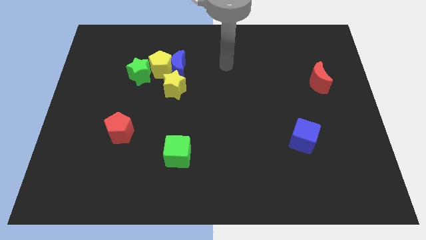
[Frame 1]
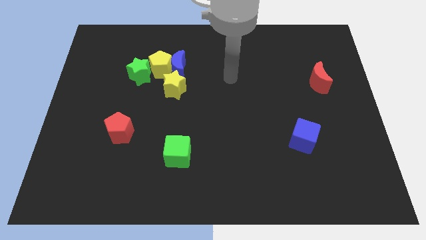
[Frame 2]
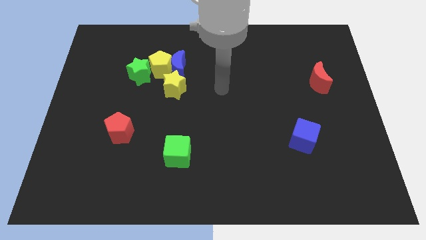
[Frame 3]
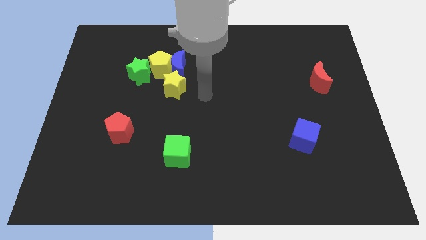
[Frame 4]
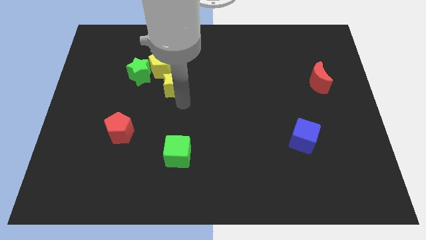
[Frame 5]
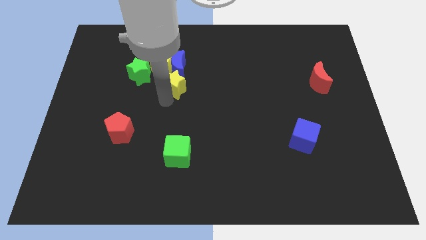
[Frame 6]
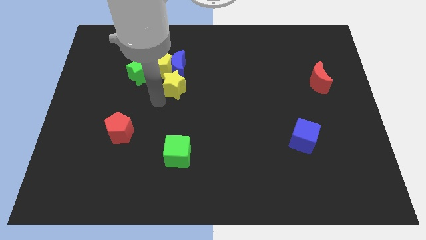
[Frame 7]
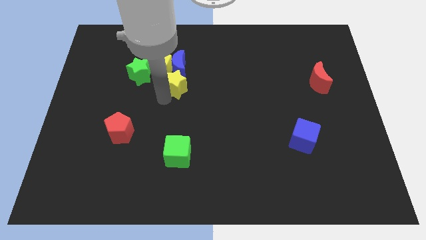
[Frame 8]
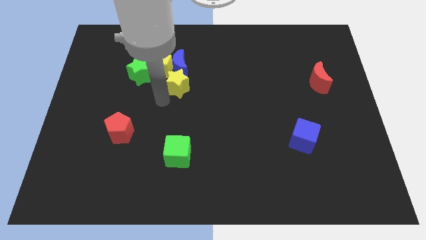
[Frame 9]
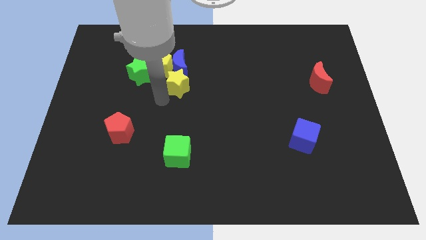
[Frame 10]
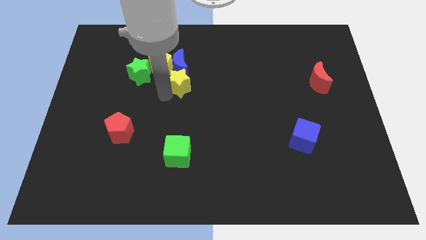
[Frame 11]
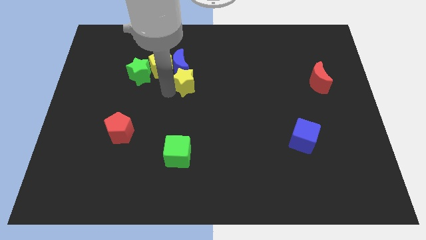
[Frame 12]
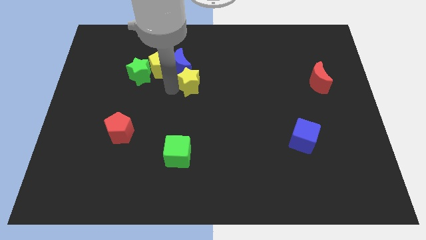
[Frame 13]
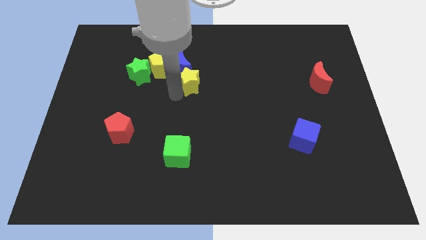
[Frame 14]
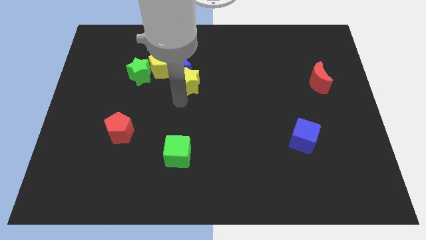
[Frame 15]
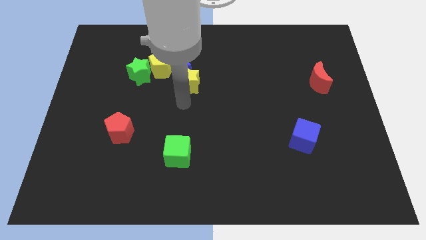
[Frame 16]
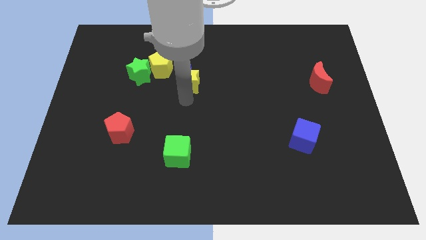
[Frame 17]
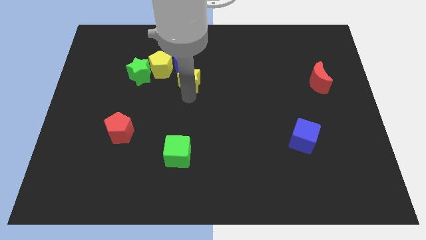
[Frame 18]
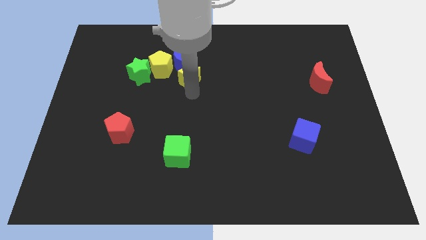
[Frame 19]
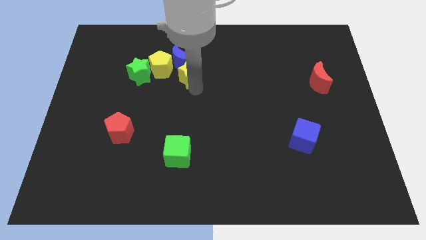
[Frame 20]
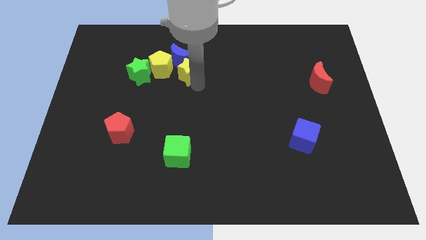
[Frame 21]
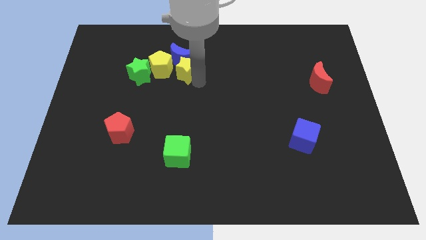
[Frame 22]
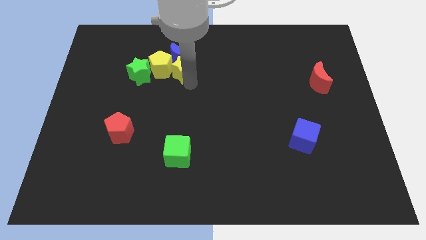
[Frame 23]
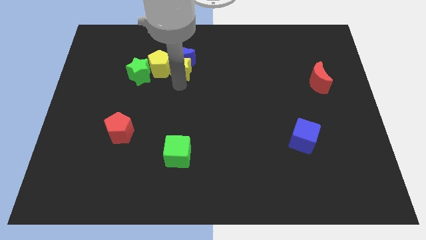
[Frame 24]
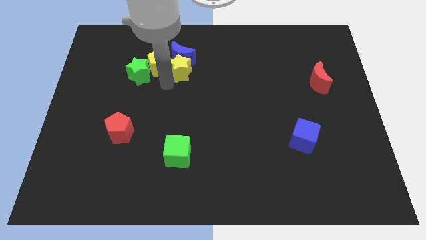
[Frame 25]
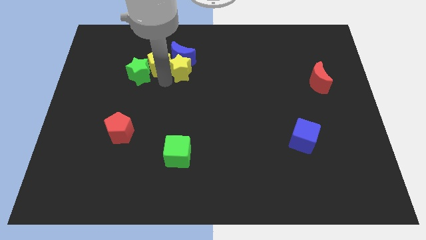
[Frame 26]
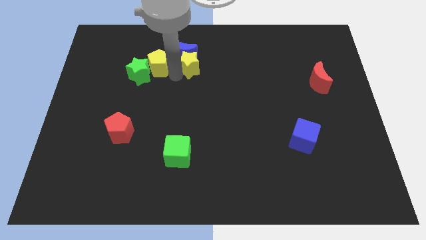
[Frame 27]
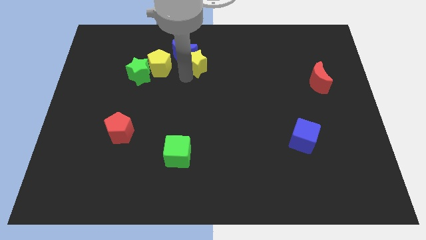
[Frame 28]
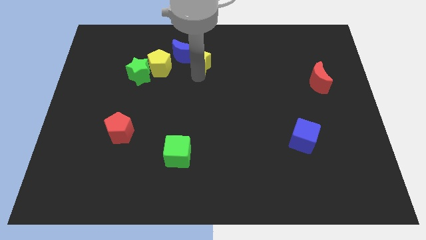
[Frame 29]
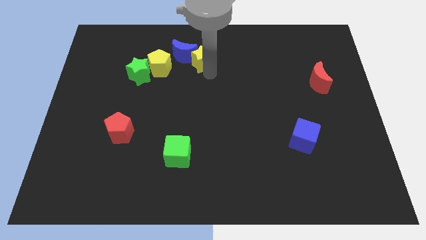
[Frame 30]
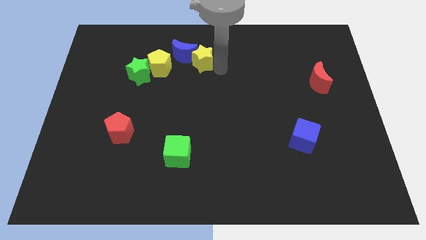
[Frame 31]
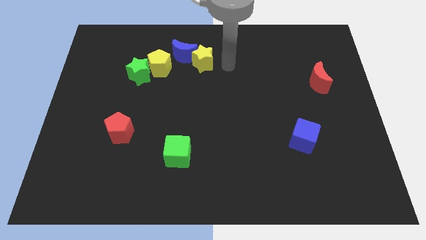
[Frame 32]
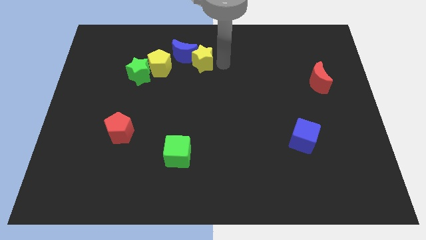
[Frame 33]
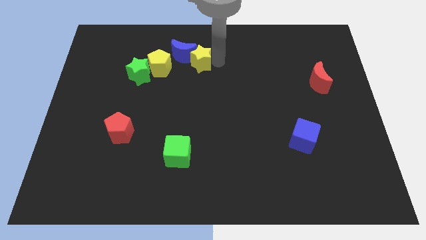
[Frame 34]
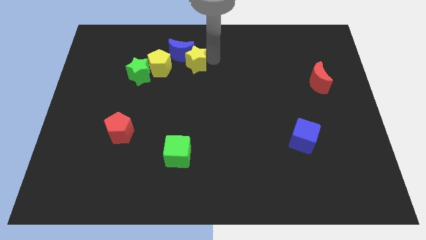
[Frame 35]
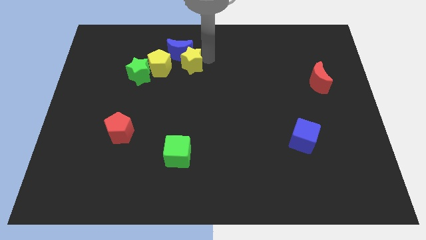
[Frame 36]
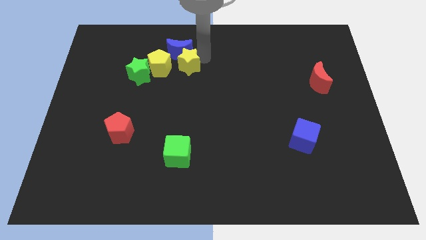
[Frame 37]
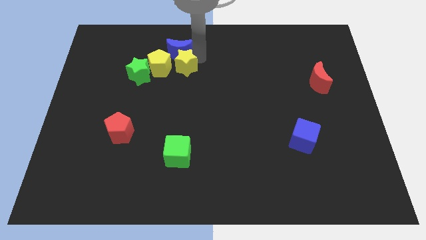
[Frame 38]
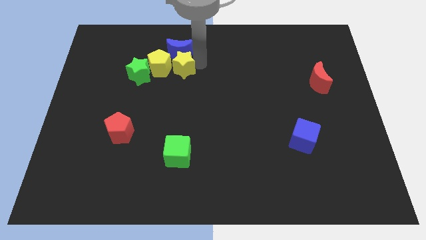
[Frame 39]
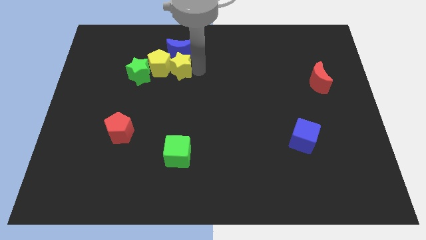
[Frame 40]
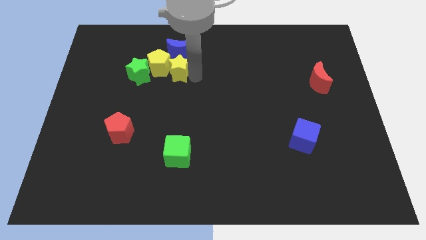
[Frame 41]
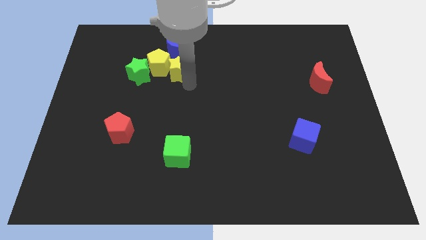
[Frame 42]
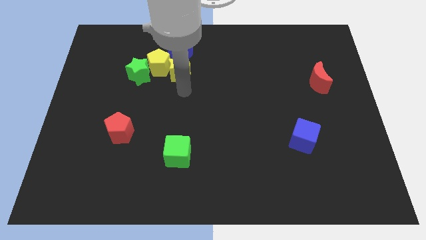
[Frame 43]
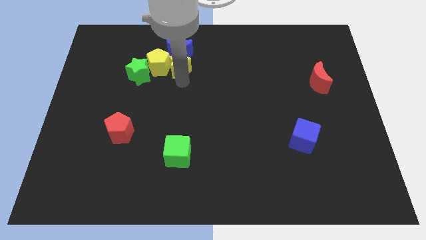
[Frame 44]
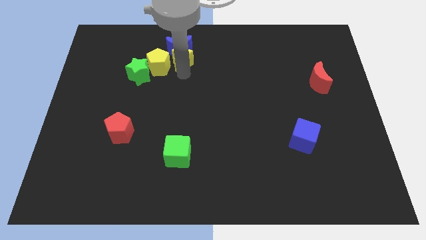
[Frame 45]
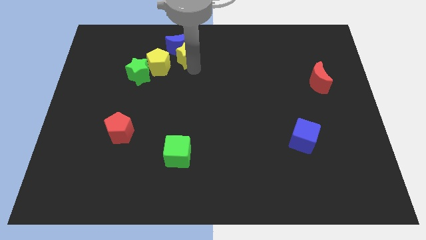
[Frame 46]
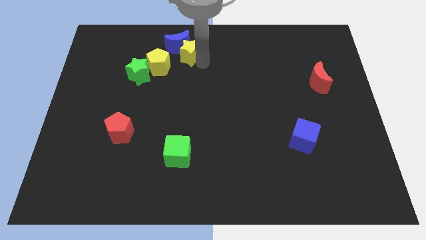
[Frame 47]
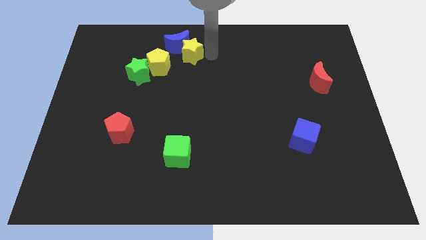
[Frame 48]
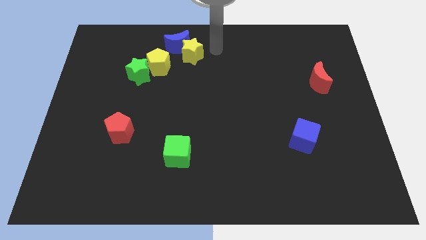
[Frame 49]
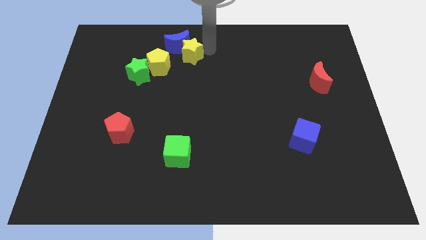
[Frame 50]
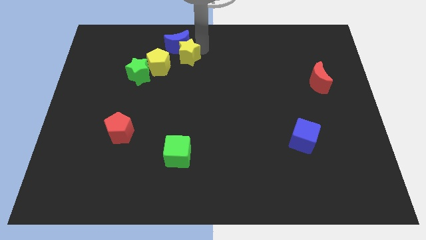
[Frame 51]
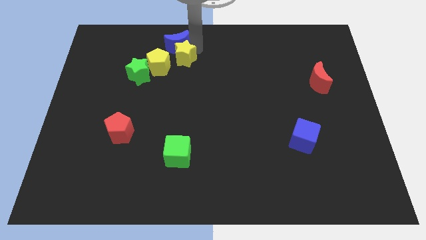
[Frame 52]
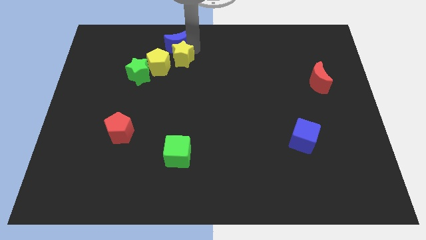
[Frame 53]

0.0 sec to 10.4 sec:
put the yellow star diagonally up and to the right of the green star

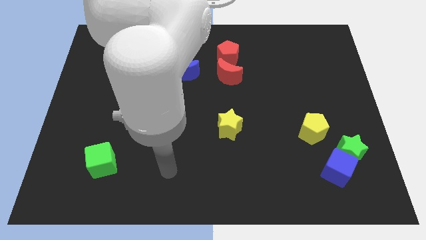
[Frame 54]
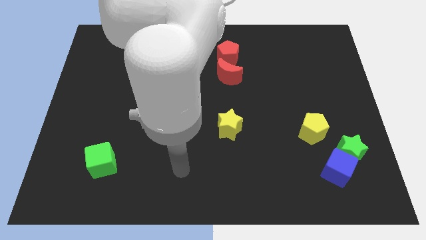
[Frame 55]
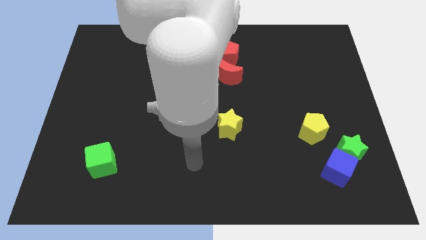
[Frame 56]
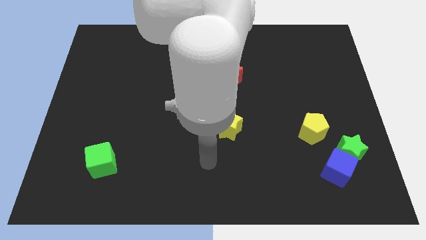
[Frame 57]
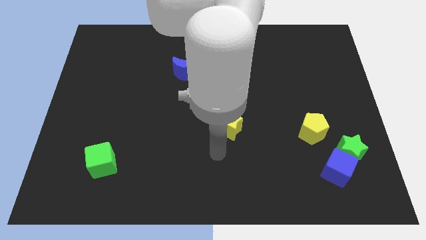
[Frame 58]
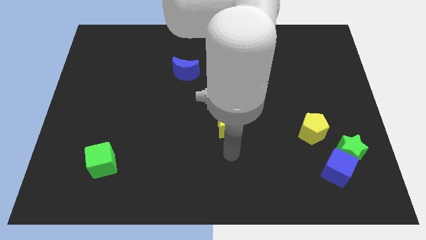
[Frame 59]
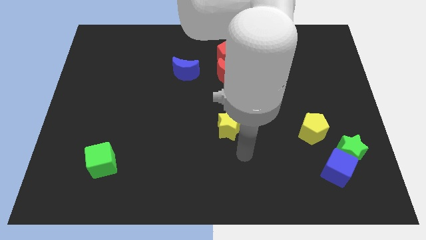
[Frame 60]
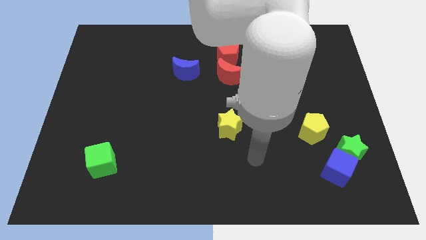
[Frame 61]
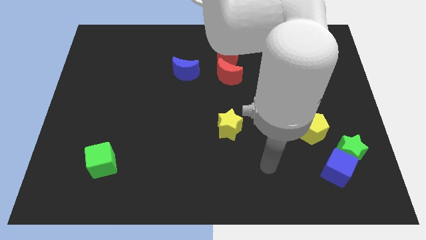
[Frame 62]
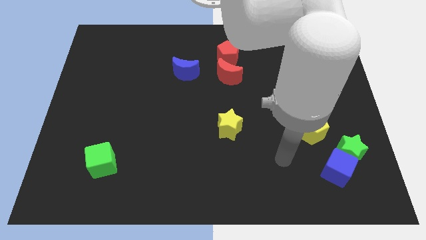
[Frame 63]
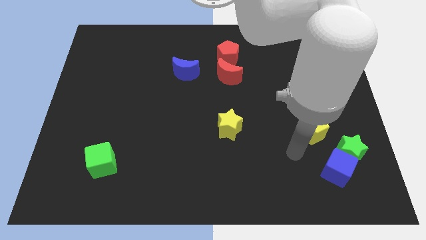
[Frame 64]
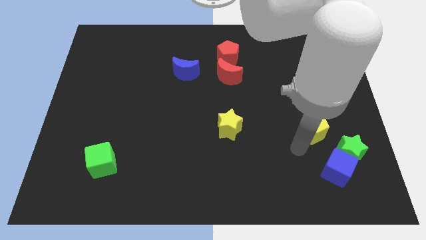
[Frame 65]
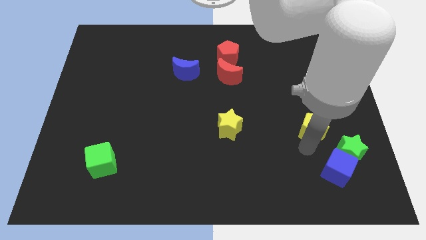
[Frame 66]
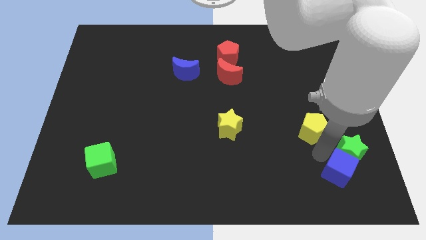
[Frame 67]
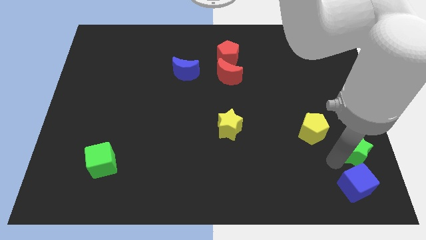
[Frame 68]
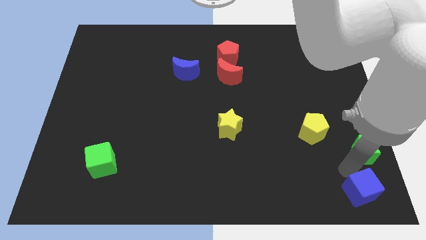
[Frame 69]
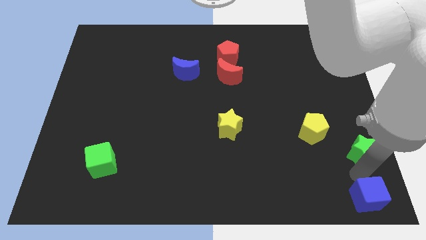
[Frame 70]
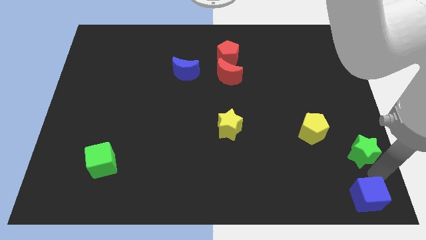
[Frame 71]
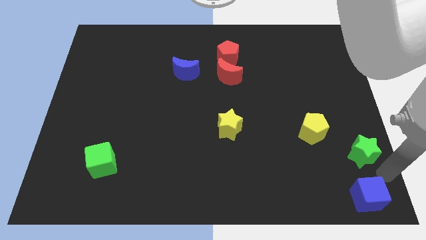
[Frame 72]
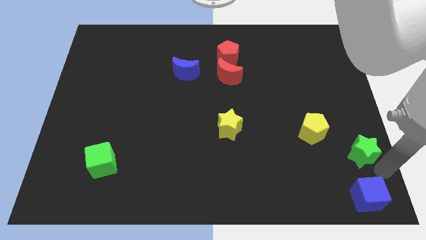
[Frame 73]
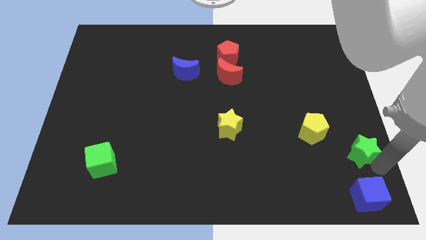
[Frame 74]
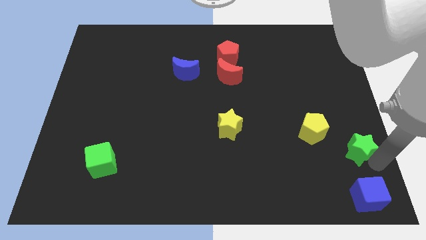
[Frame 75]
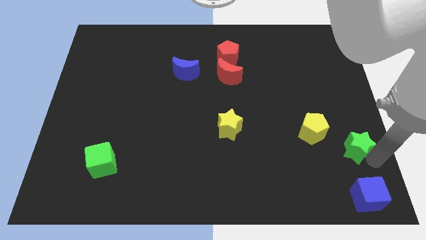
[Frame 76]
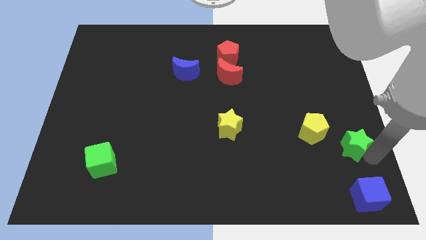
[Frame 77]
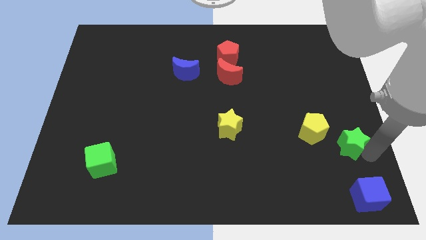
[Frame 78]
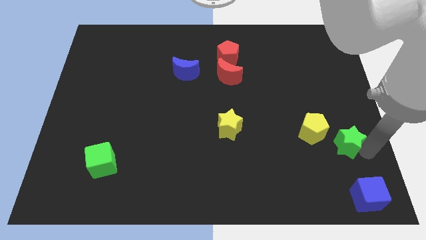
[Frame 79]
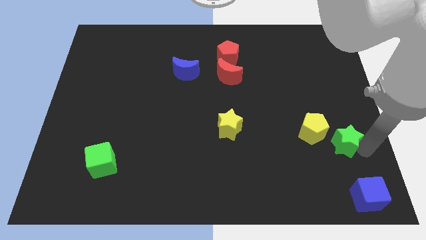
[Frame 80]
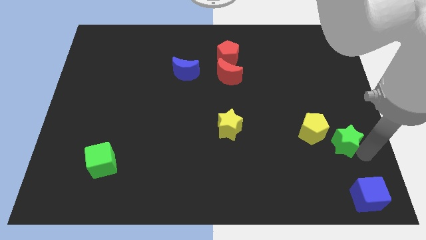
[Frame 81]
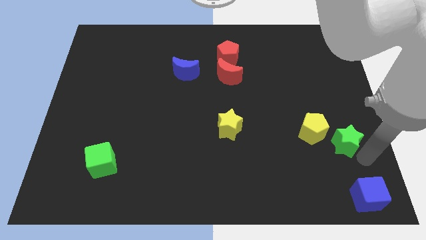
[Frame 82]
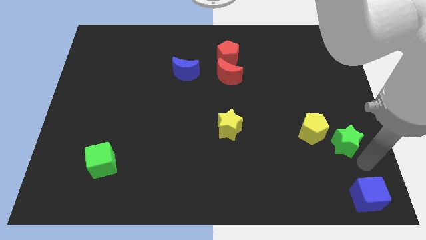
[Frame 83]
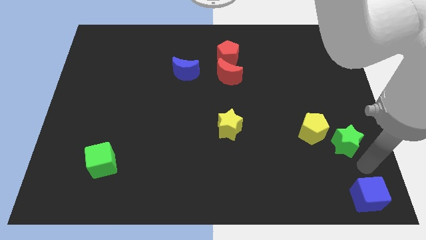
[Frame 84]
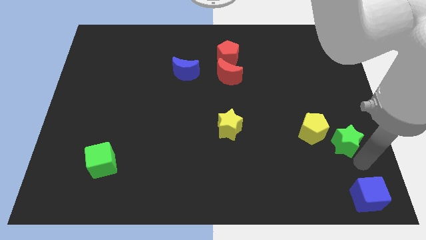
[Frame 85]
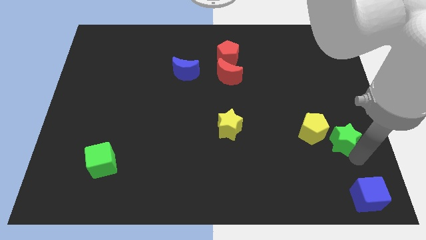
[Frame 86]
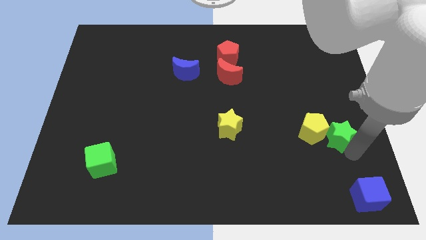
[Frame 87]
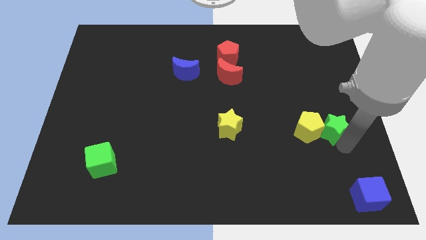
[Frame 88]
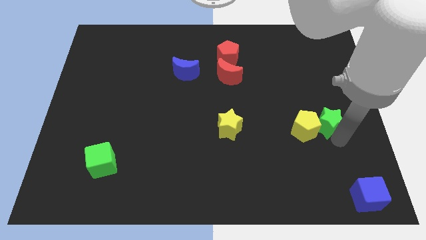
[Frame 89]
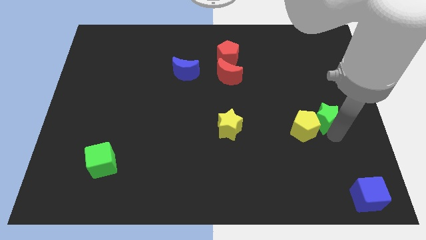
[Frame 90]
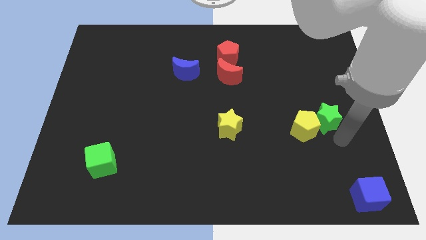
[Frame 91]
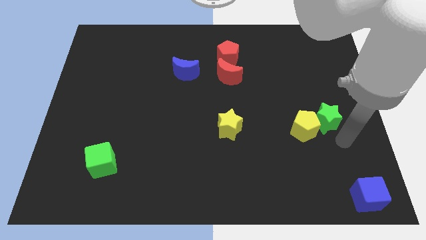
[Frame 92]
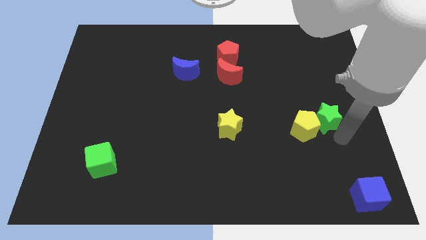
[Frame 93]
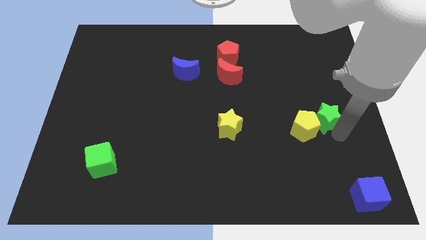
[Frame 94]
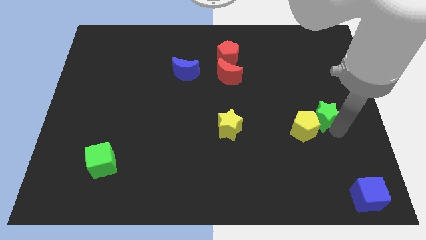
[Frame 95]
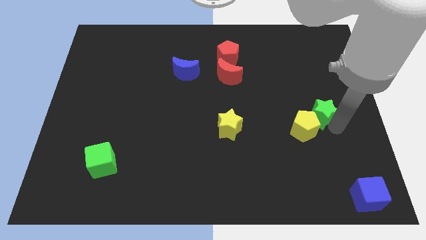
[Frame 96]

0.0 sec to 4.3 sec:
slide the green star to the top of the yellow pentagon
